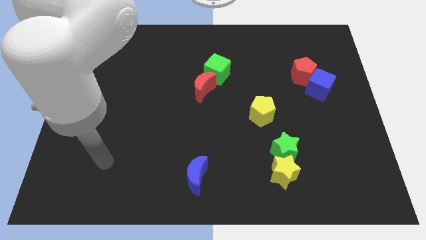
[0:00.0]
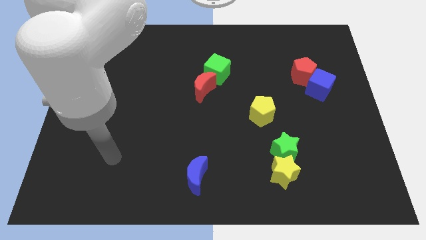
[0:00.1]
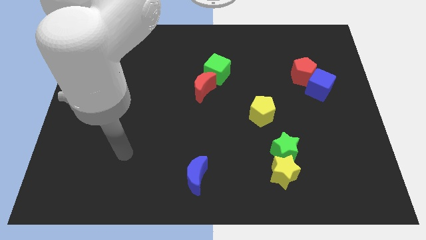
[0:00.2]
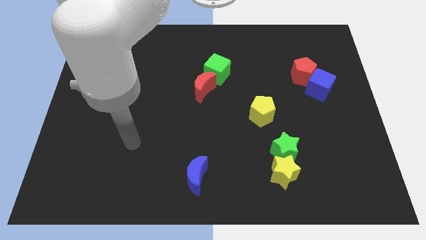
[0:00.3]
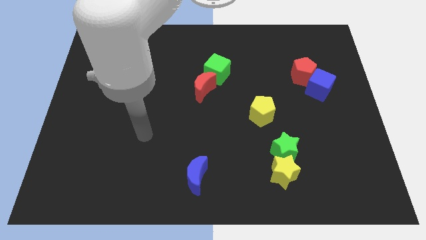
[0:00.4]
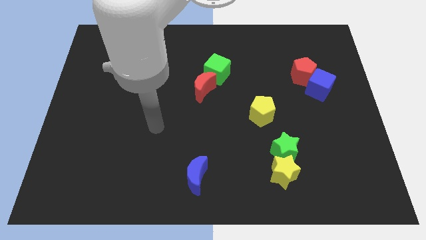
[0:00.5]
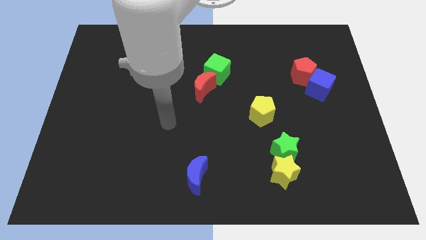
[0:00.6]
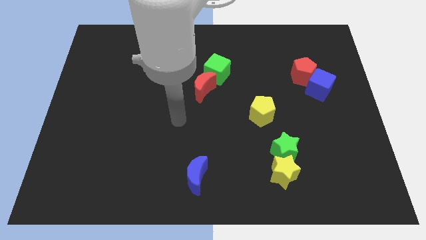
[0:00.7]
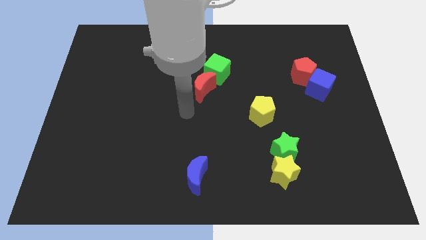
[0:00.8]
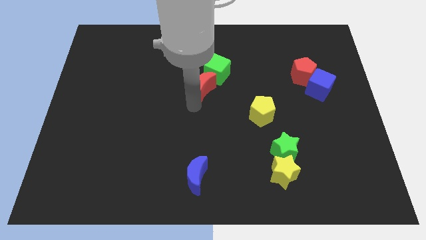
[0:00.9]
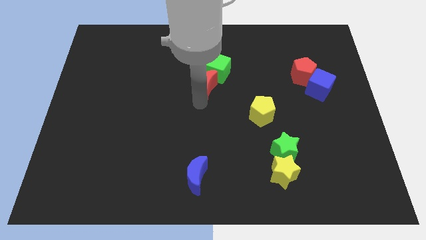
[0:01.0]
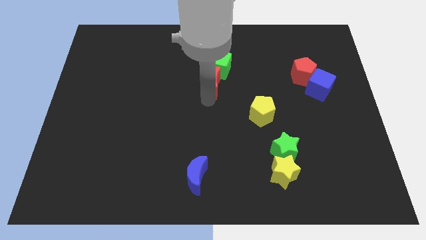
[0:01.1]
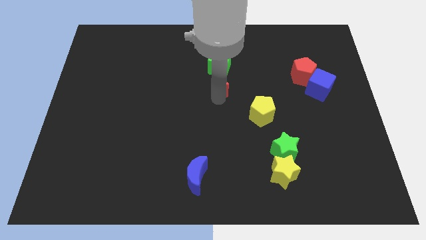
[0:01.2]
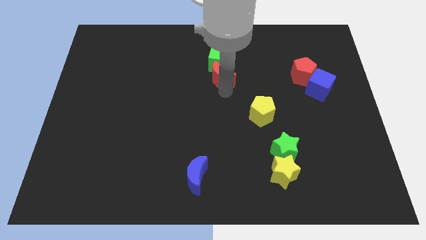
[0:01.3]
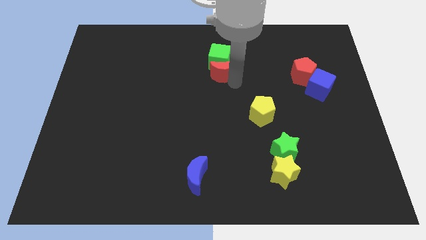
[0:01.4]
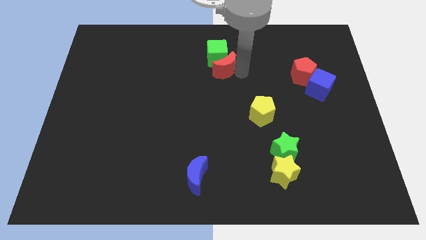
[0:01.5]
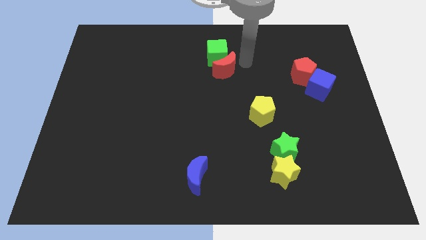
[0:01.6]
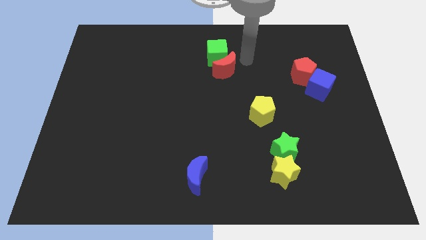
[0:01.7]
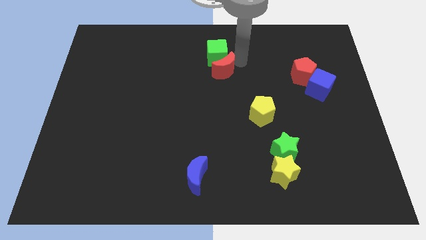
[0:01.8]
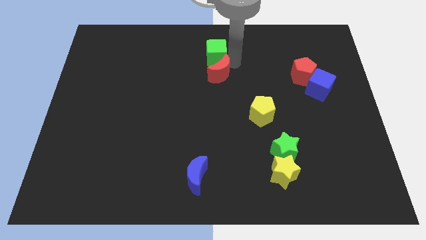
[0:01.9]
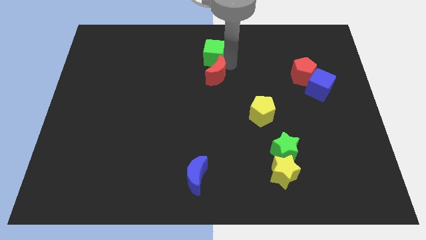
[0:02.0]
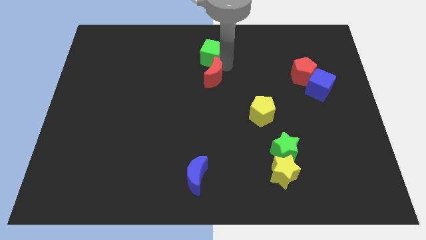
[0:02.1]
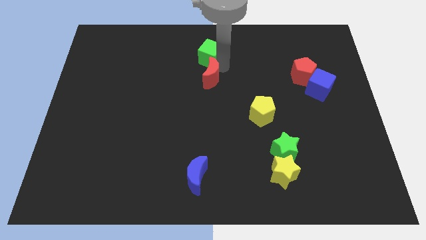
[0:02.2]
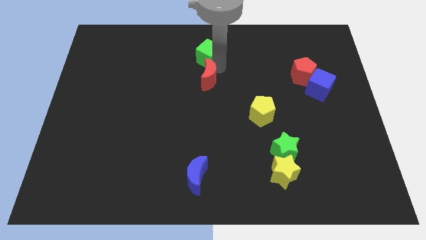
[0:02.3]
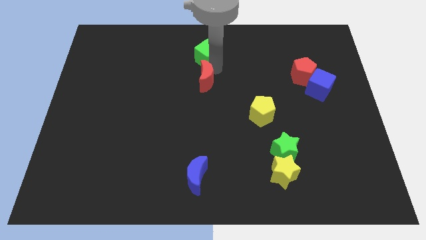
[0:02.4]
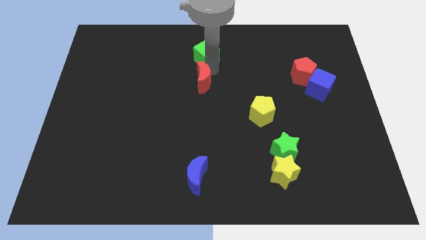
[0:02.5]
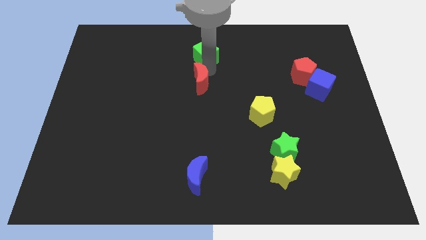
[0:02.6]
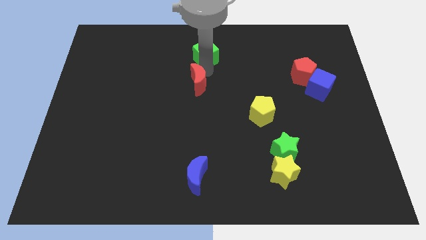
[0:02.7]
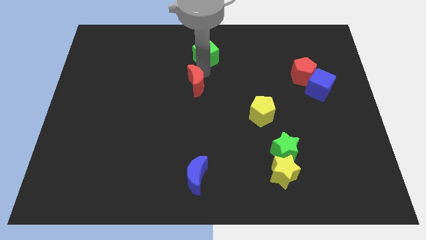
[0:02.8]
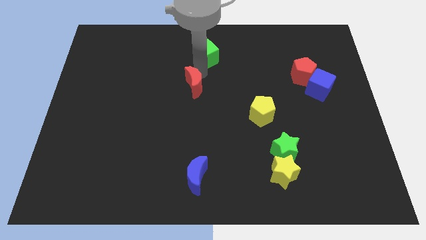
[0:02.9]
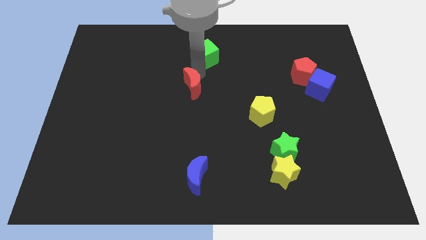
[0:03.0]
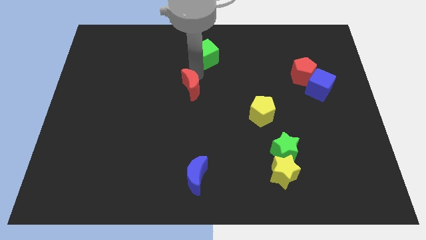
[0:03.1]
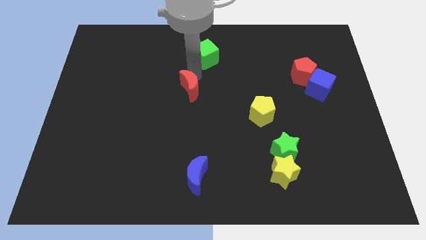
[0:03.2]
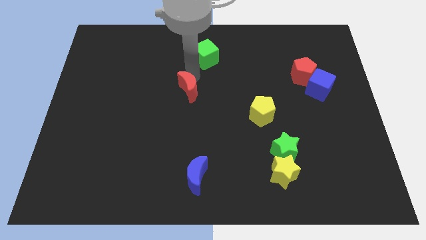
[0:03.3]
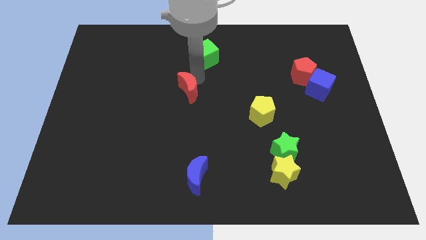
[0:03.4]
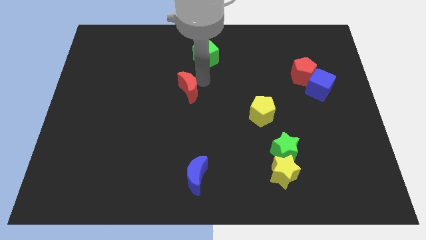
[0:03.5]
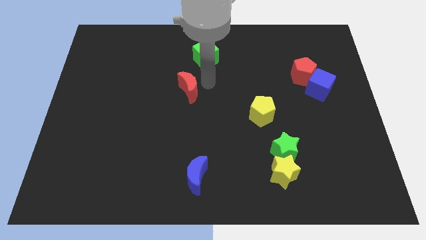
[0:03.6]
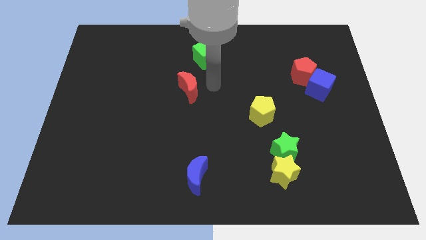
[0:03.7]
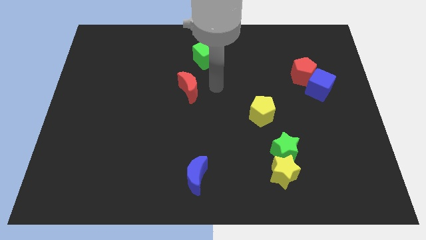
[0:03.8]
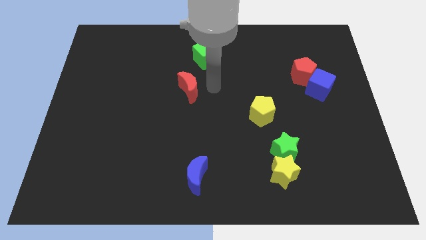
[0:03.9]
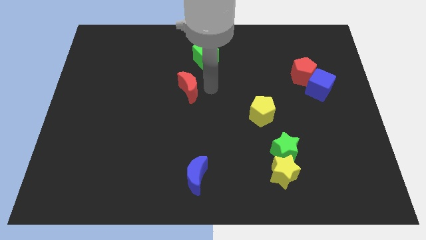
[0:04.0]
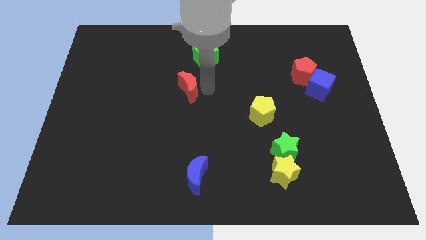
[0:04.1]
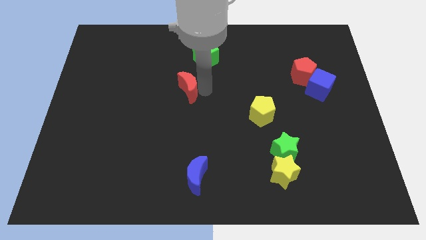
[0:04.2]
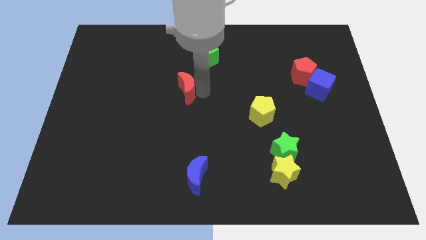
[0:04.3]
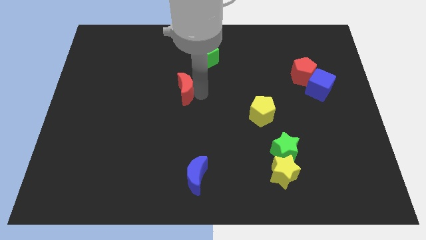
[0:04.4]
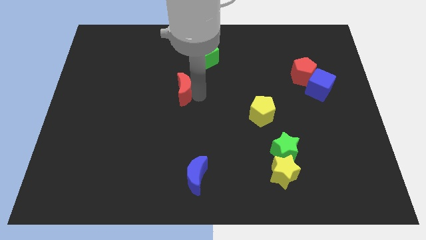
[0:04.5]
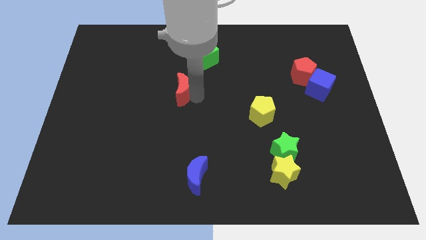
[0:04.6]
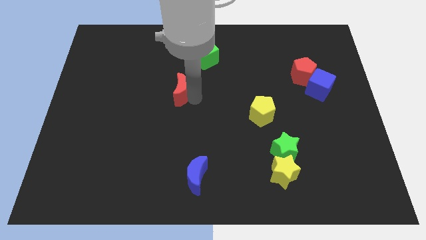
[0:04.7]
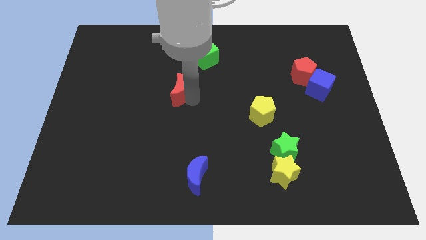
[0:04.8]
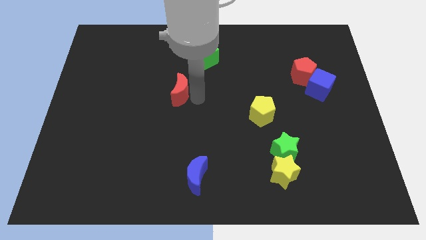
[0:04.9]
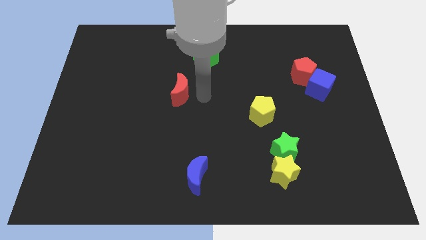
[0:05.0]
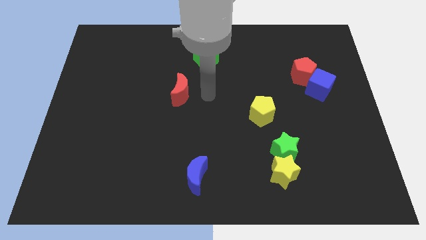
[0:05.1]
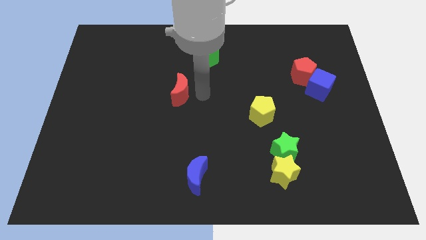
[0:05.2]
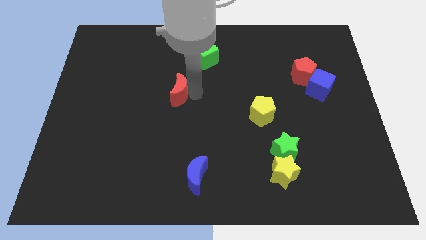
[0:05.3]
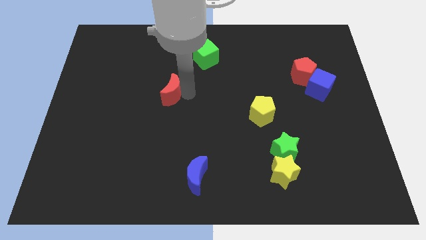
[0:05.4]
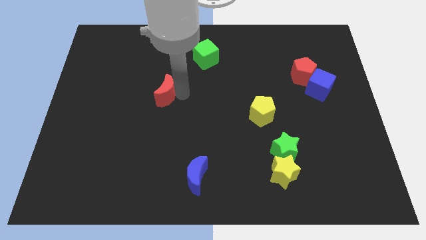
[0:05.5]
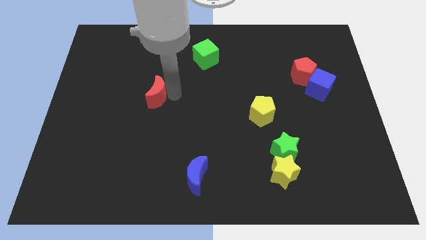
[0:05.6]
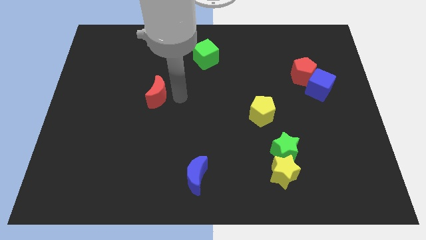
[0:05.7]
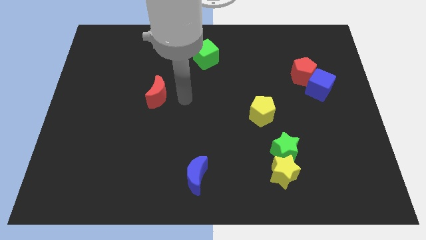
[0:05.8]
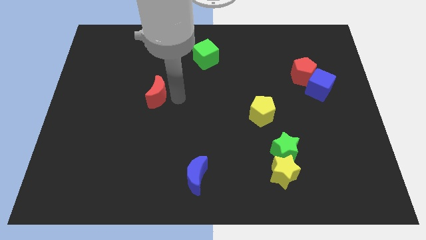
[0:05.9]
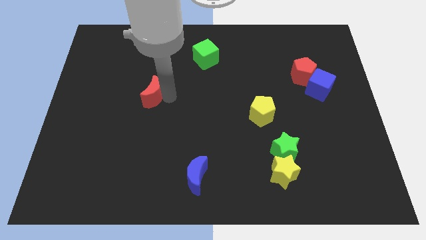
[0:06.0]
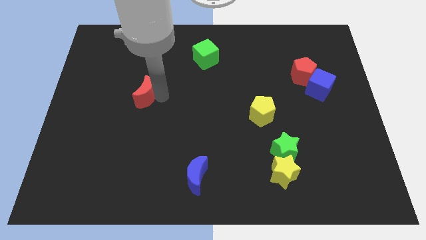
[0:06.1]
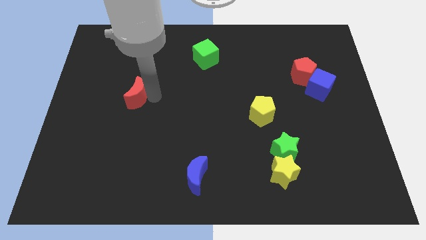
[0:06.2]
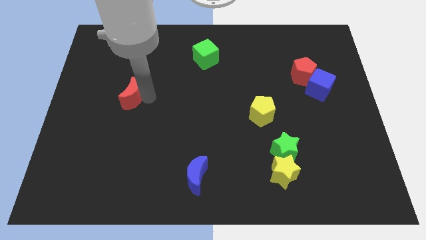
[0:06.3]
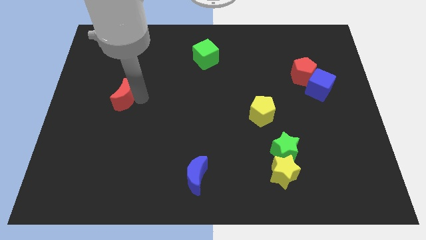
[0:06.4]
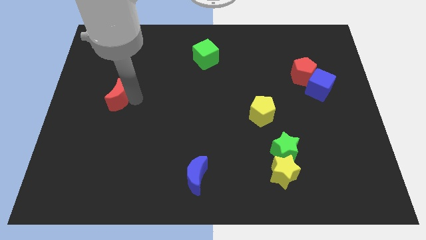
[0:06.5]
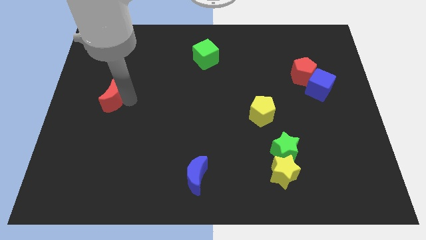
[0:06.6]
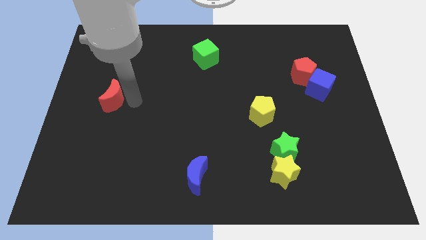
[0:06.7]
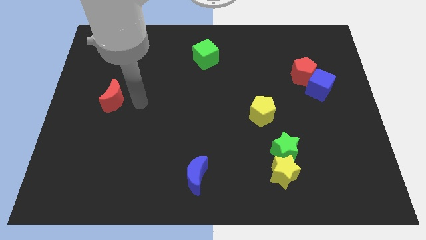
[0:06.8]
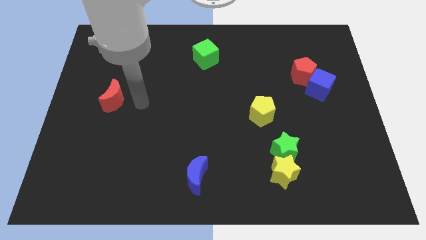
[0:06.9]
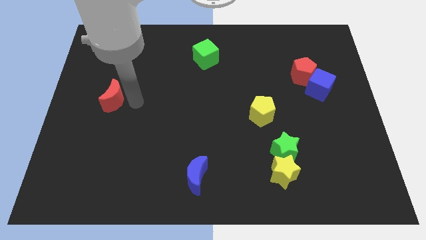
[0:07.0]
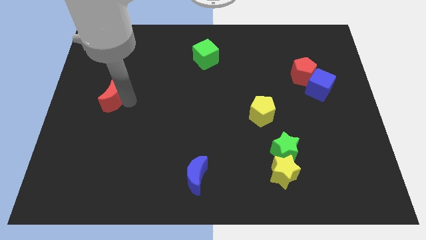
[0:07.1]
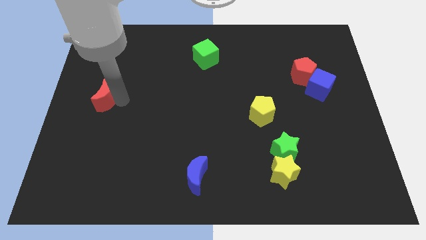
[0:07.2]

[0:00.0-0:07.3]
push the red moon to the center left
